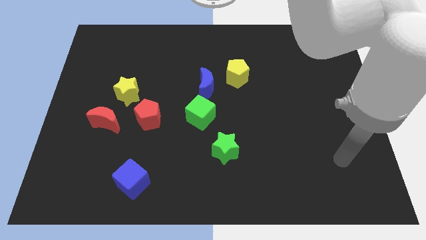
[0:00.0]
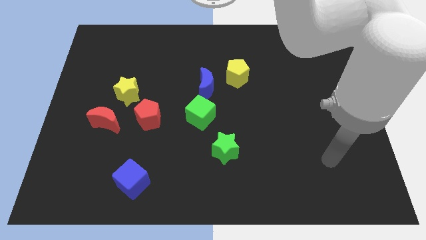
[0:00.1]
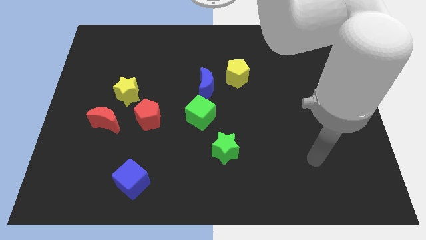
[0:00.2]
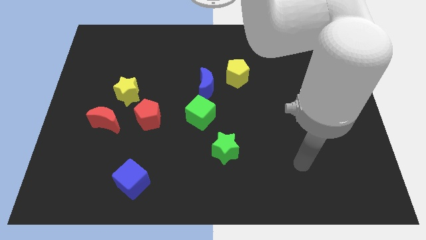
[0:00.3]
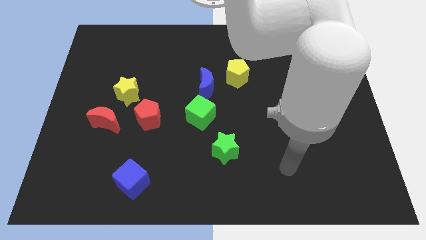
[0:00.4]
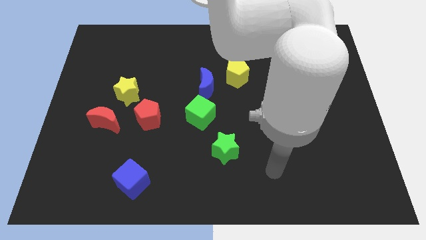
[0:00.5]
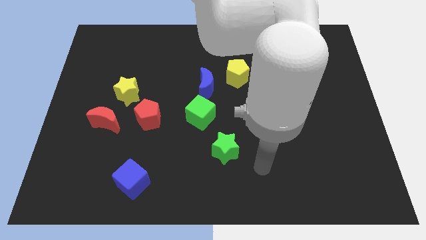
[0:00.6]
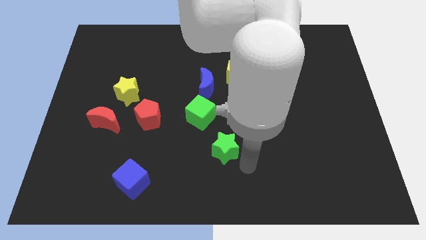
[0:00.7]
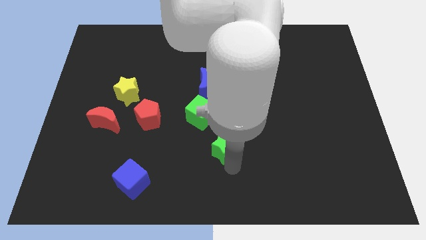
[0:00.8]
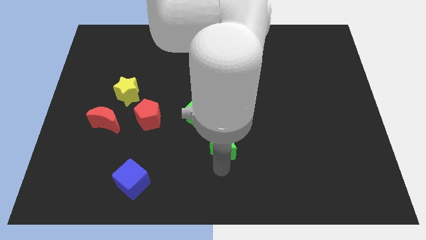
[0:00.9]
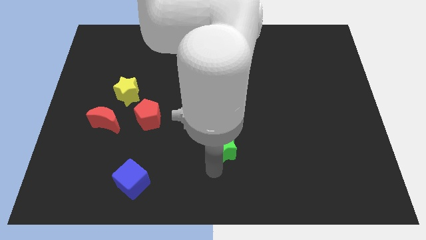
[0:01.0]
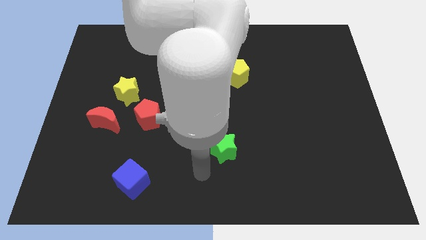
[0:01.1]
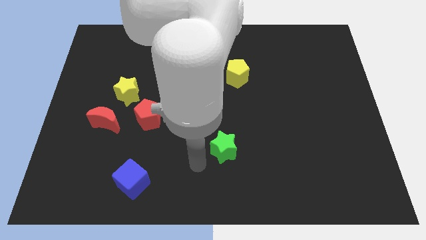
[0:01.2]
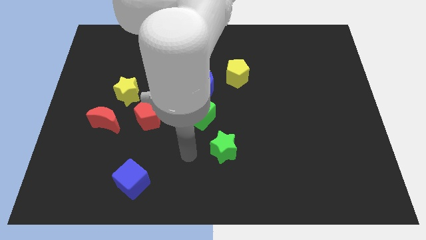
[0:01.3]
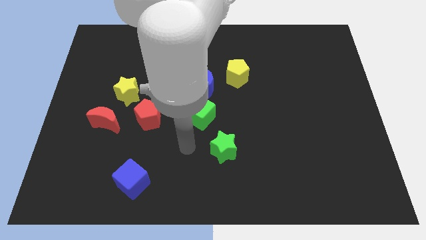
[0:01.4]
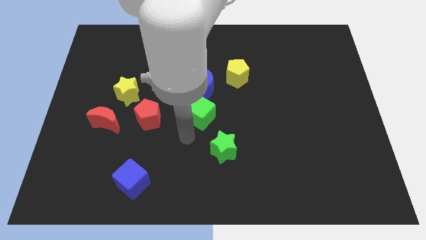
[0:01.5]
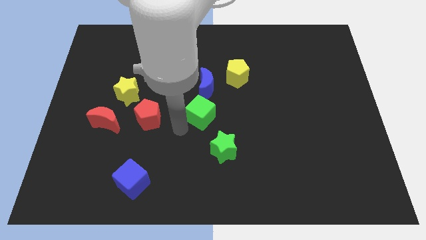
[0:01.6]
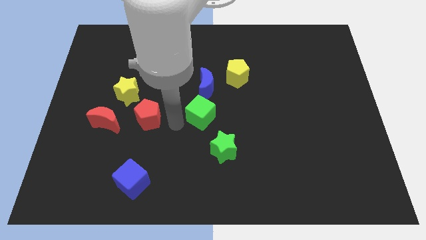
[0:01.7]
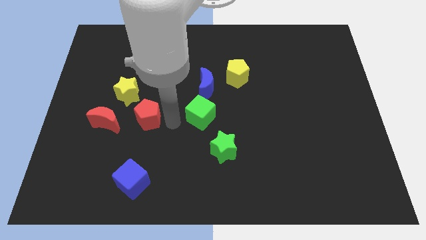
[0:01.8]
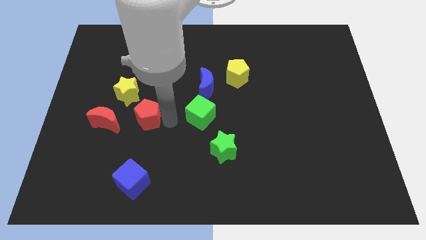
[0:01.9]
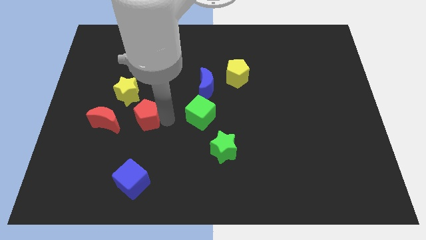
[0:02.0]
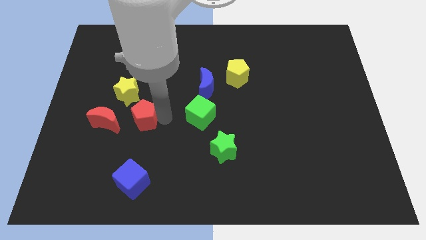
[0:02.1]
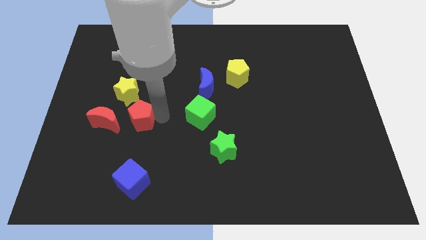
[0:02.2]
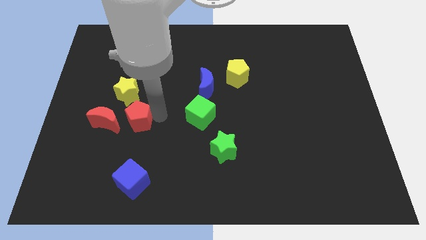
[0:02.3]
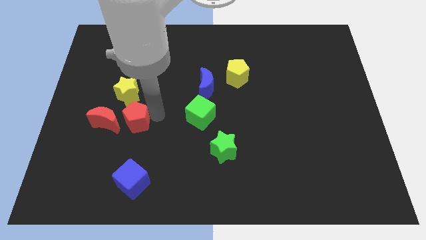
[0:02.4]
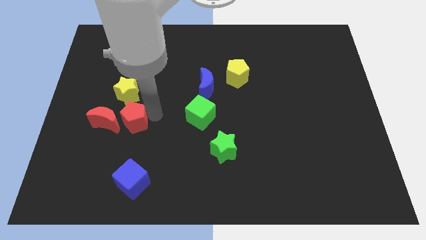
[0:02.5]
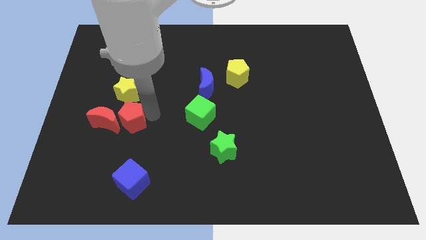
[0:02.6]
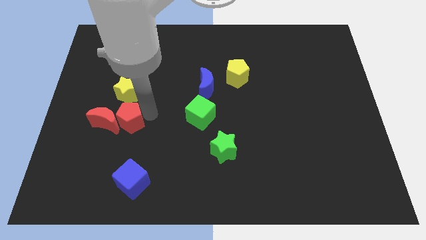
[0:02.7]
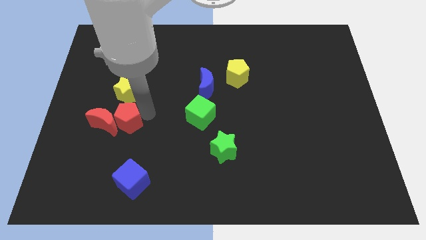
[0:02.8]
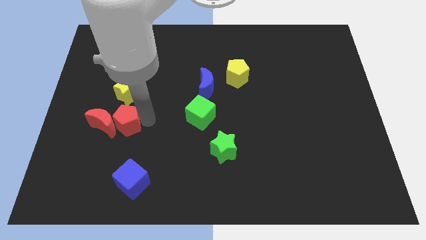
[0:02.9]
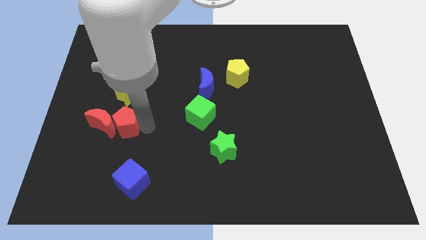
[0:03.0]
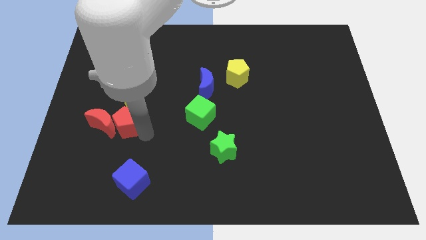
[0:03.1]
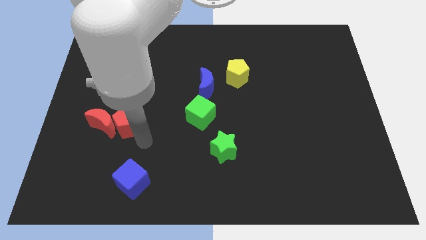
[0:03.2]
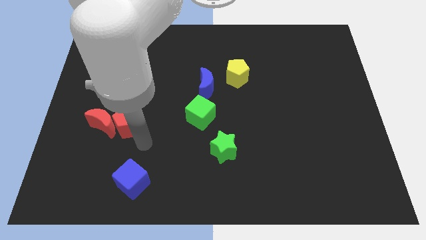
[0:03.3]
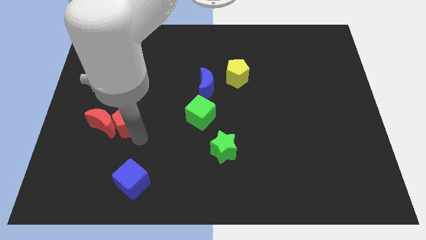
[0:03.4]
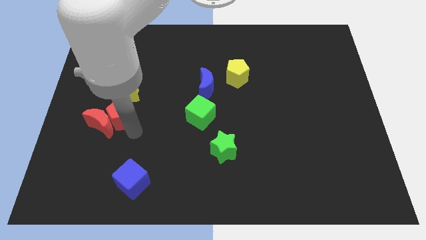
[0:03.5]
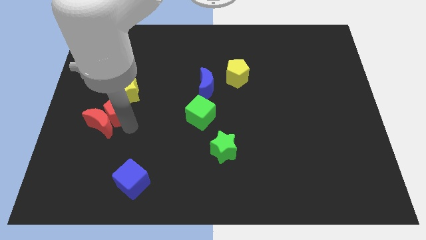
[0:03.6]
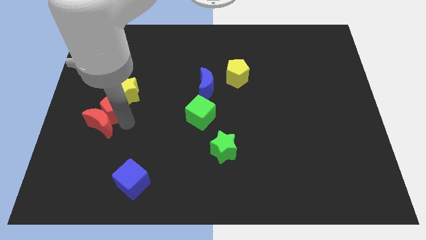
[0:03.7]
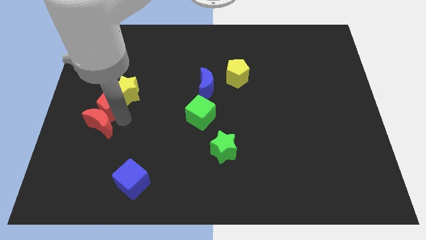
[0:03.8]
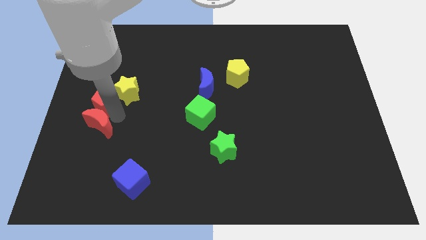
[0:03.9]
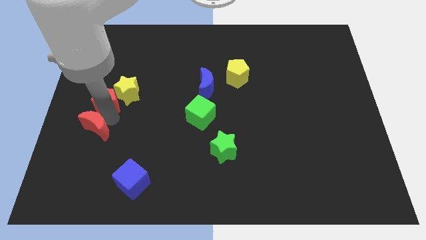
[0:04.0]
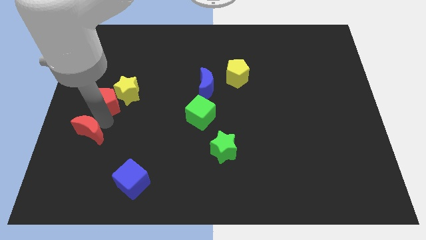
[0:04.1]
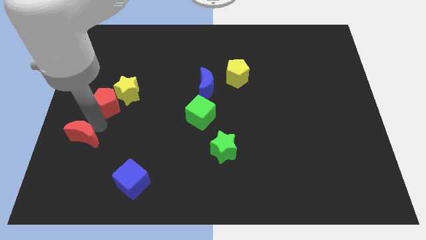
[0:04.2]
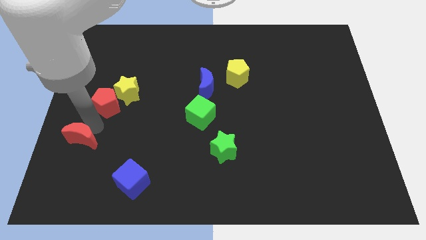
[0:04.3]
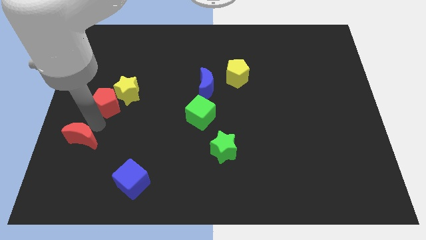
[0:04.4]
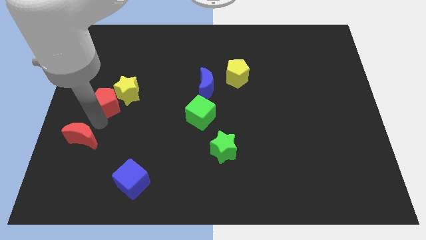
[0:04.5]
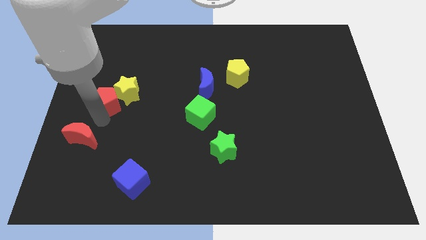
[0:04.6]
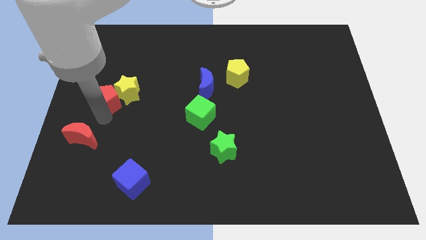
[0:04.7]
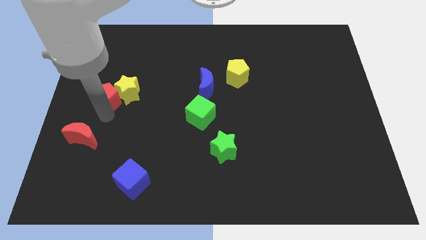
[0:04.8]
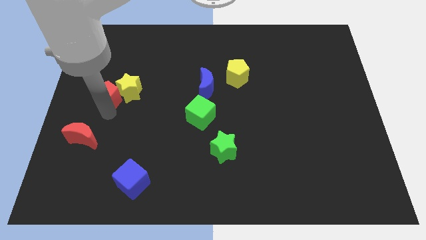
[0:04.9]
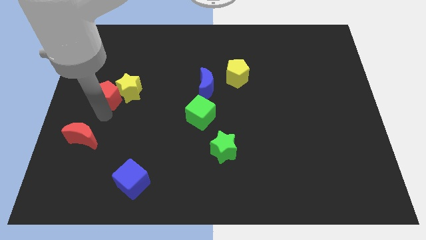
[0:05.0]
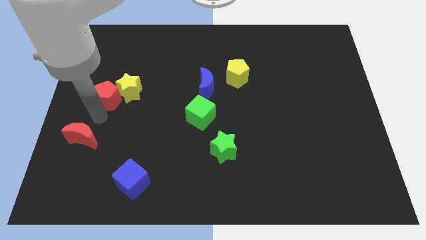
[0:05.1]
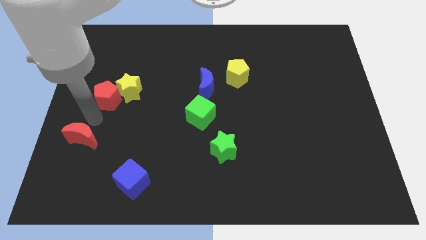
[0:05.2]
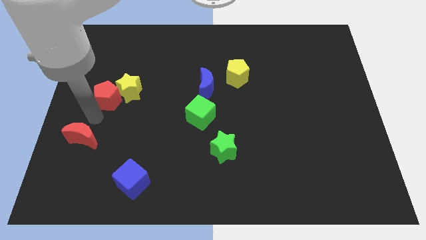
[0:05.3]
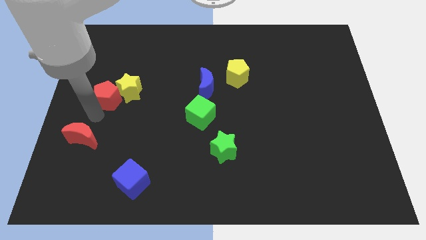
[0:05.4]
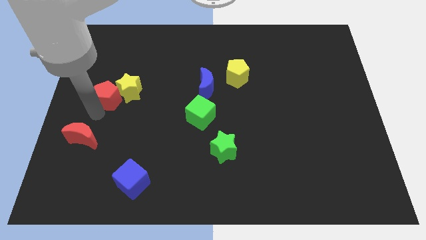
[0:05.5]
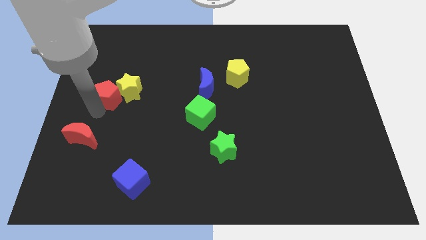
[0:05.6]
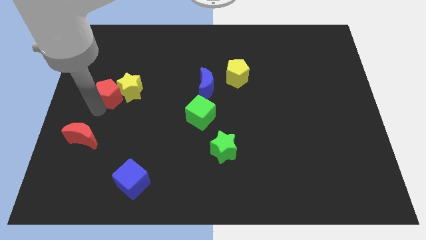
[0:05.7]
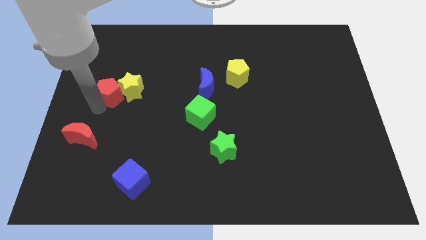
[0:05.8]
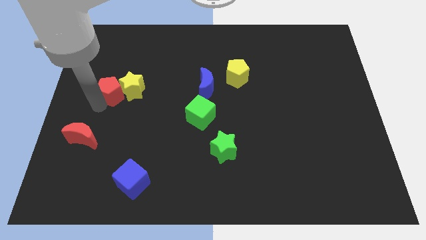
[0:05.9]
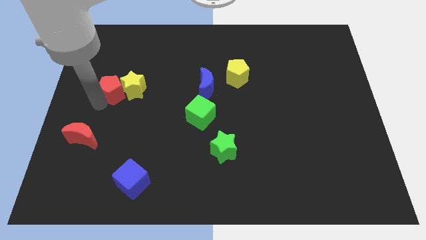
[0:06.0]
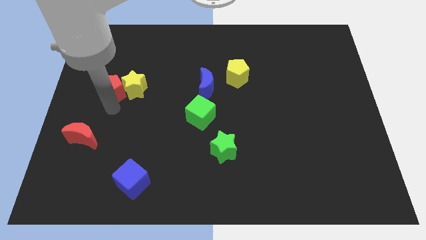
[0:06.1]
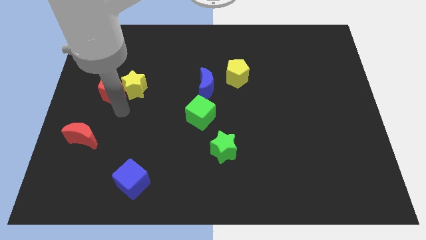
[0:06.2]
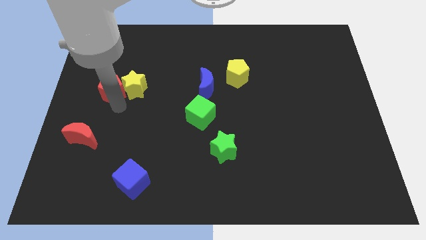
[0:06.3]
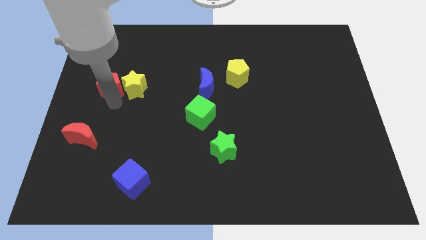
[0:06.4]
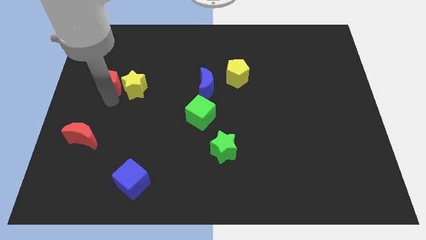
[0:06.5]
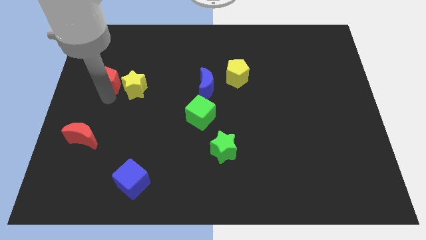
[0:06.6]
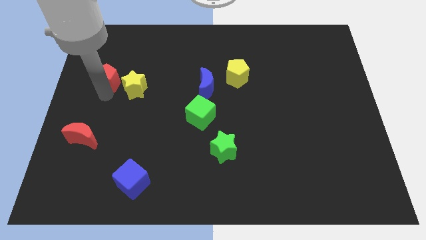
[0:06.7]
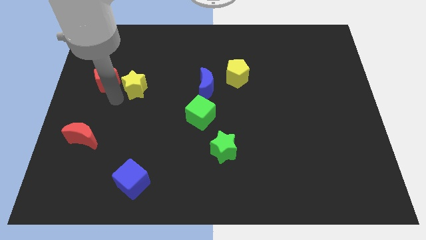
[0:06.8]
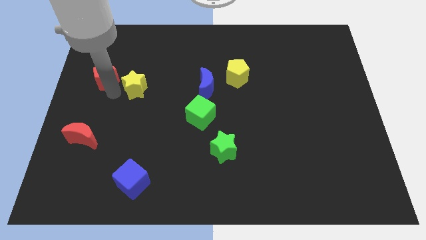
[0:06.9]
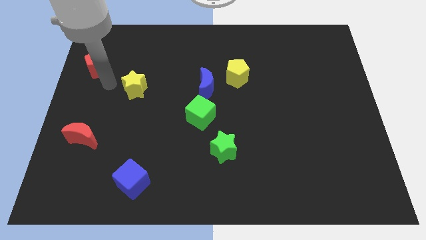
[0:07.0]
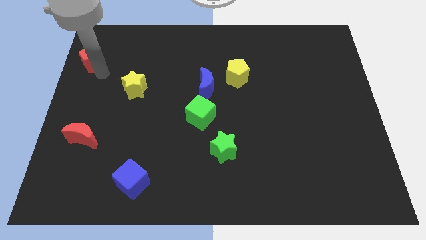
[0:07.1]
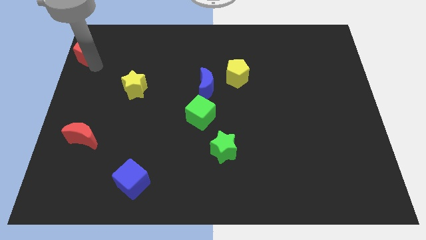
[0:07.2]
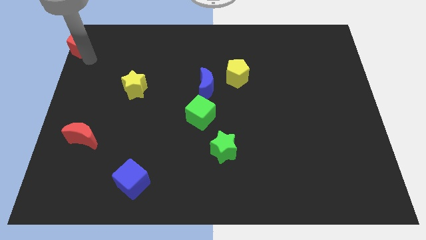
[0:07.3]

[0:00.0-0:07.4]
push the red pentagon to the upper left corner

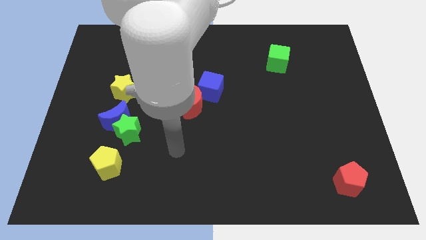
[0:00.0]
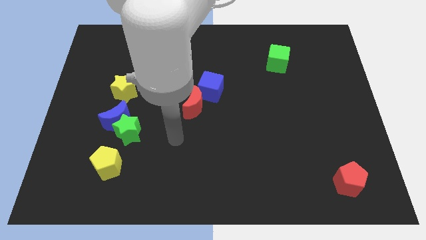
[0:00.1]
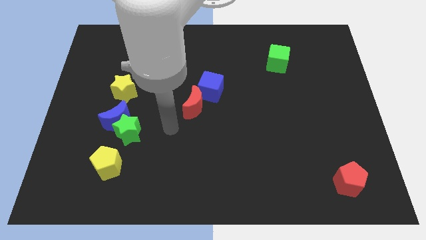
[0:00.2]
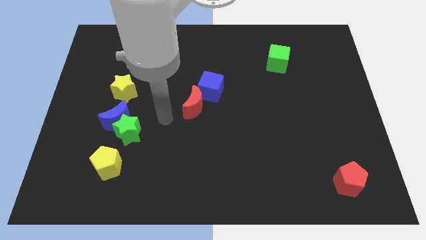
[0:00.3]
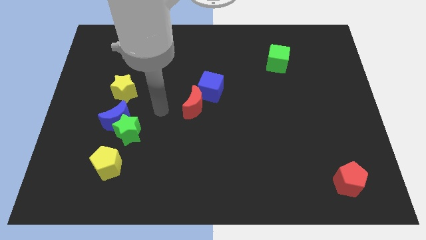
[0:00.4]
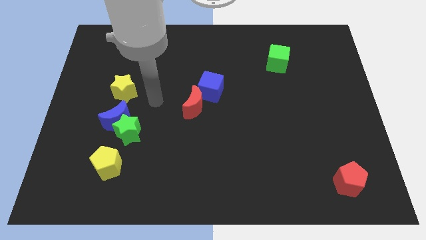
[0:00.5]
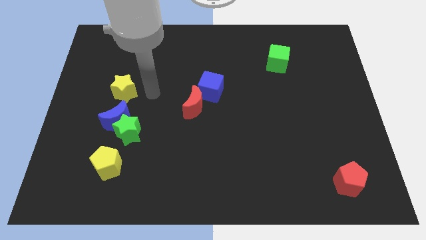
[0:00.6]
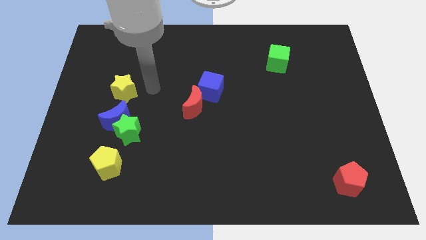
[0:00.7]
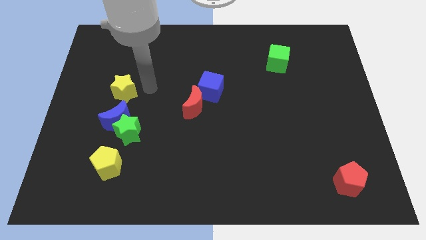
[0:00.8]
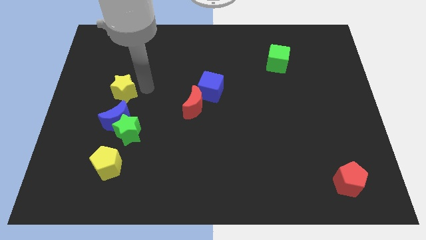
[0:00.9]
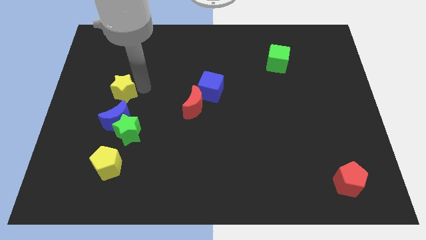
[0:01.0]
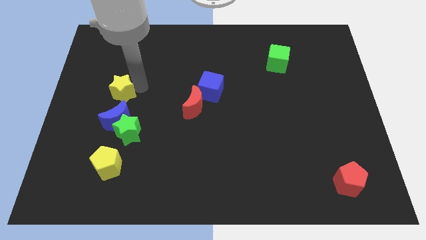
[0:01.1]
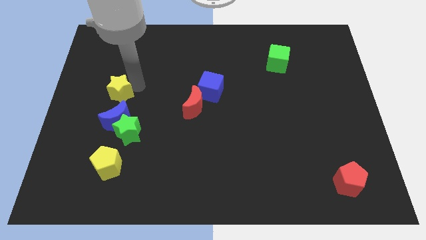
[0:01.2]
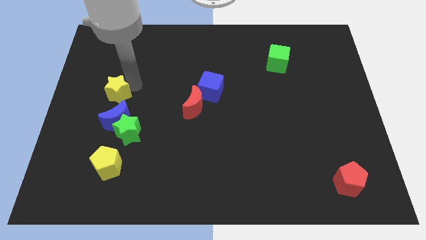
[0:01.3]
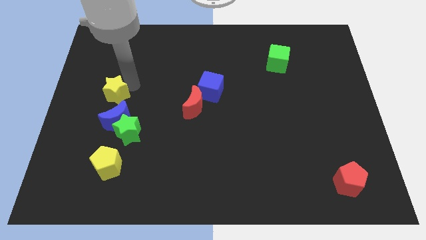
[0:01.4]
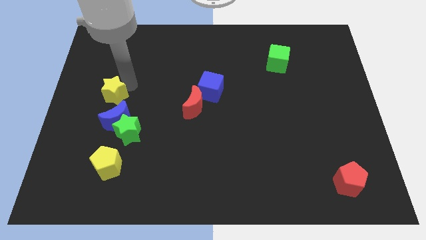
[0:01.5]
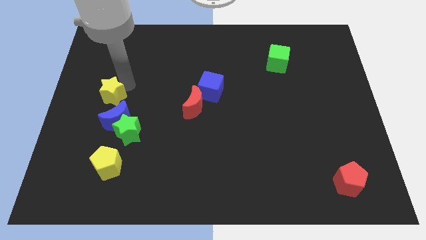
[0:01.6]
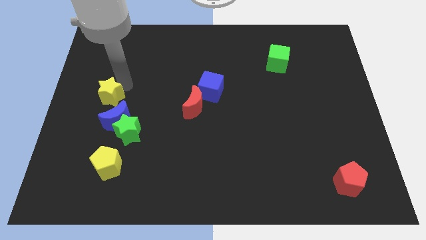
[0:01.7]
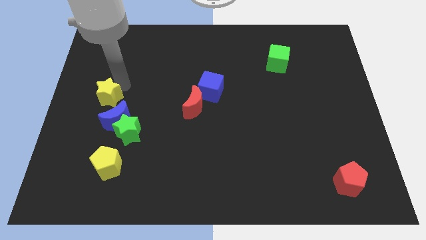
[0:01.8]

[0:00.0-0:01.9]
slide the yellow star to the left side
